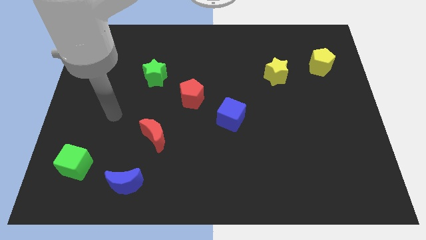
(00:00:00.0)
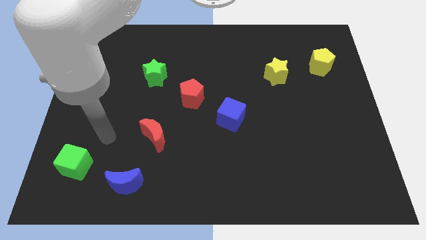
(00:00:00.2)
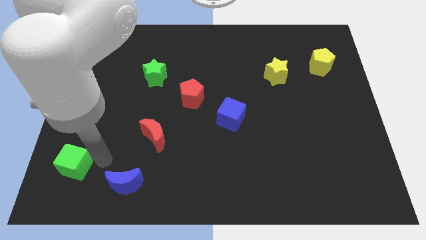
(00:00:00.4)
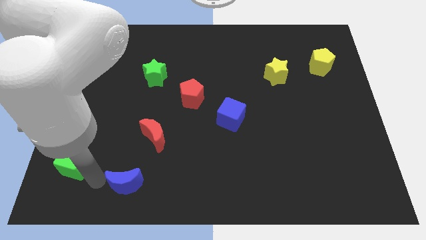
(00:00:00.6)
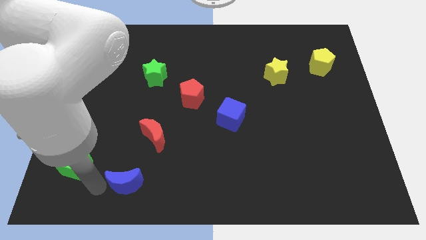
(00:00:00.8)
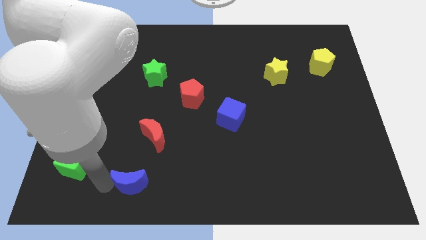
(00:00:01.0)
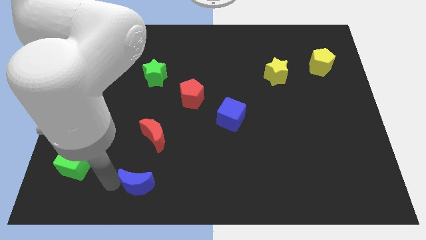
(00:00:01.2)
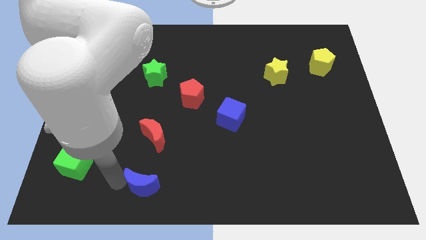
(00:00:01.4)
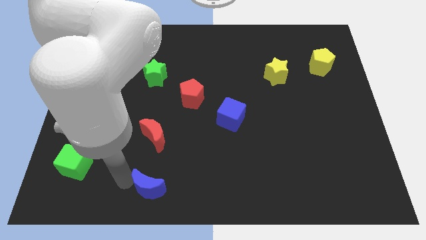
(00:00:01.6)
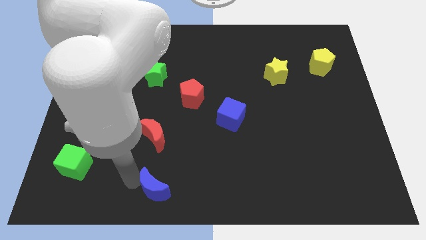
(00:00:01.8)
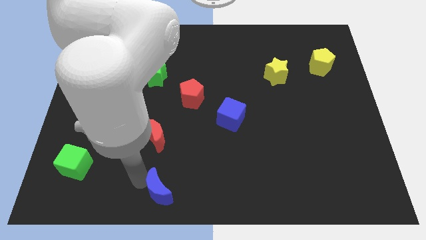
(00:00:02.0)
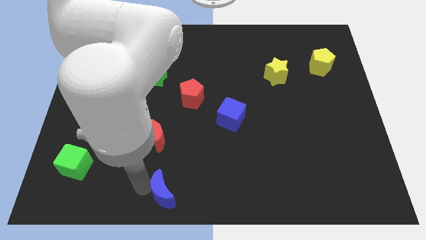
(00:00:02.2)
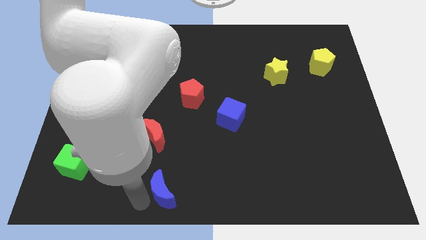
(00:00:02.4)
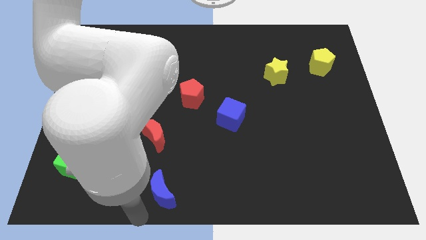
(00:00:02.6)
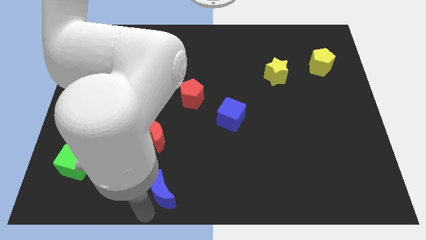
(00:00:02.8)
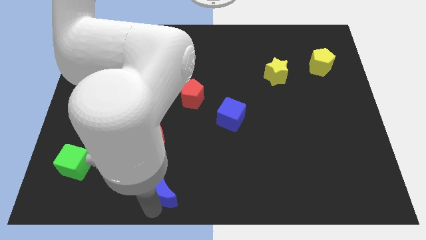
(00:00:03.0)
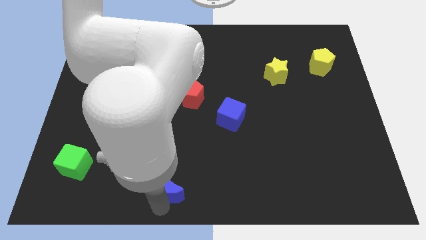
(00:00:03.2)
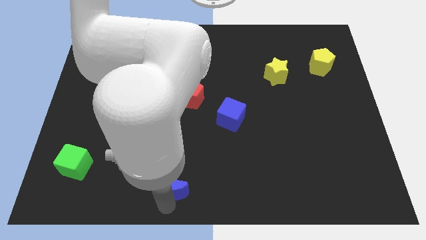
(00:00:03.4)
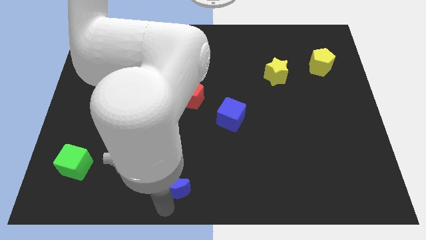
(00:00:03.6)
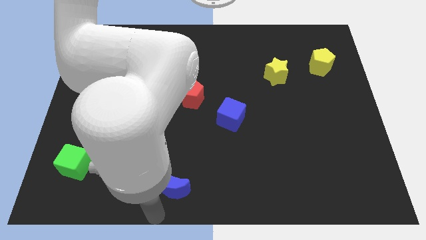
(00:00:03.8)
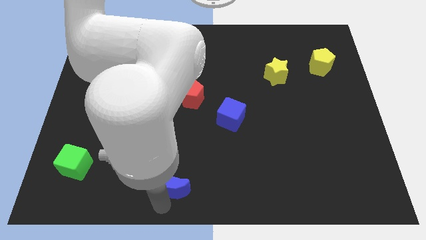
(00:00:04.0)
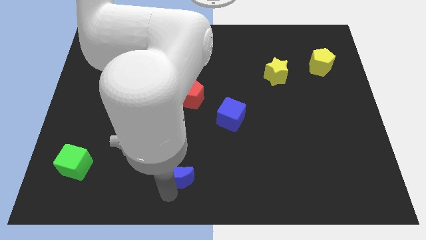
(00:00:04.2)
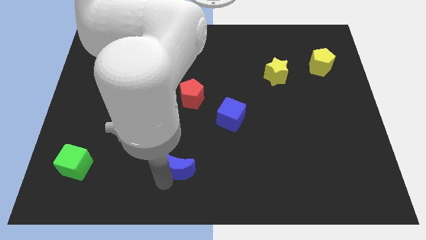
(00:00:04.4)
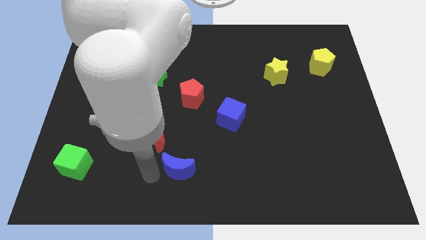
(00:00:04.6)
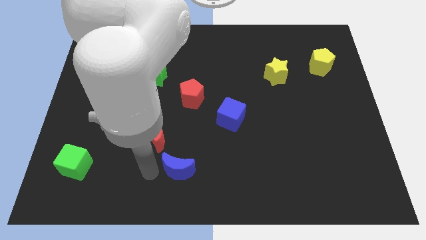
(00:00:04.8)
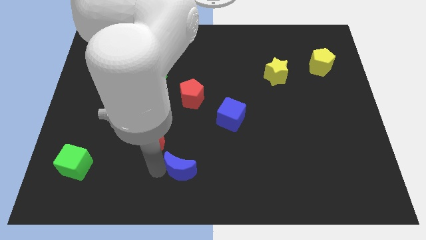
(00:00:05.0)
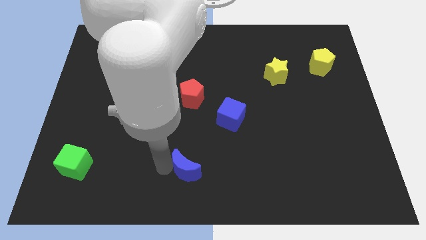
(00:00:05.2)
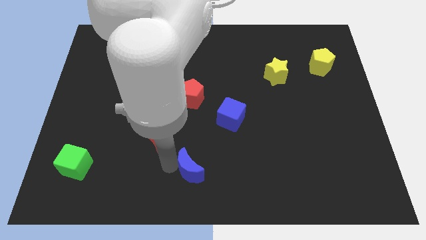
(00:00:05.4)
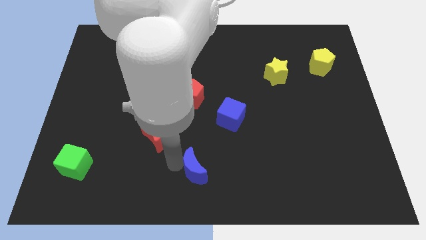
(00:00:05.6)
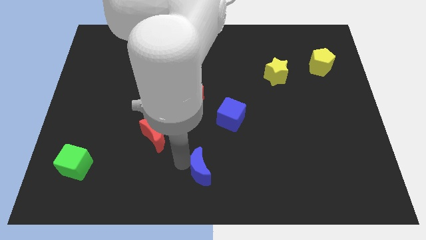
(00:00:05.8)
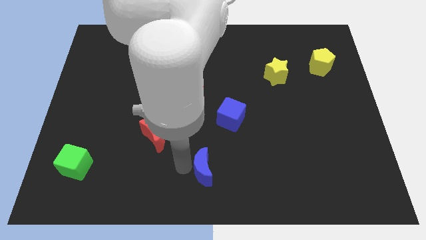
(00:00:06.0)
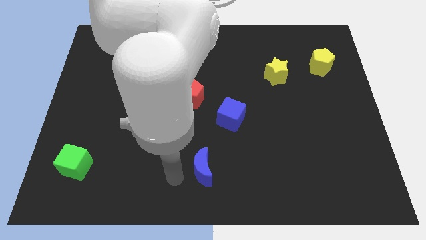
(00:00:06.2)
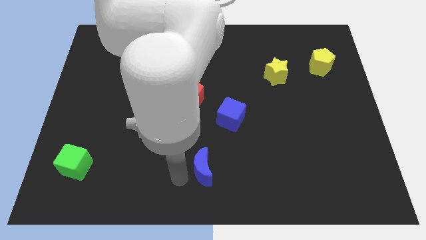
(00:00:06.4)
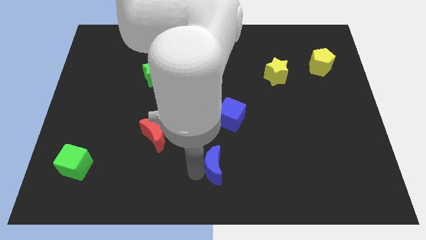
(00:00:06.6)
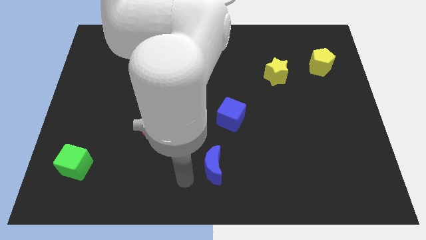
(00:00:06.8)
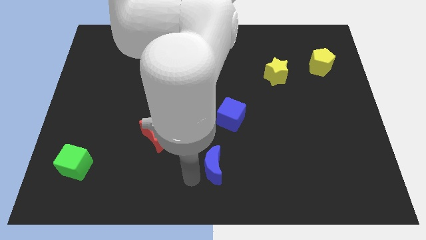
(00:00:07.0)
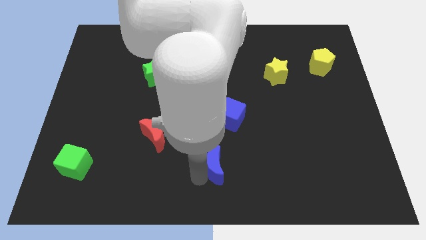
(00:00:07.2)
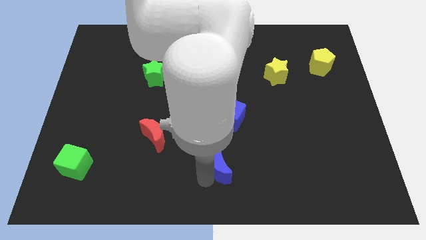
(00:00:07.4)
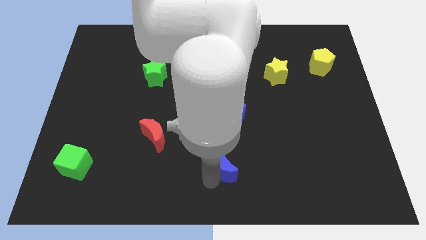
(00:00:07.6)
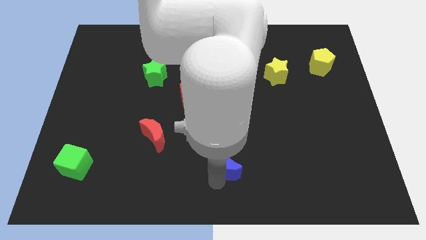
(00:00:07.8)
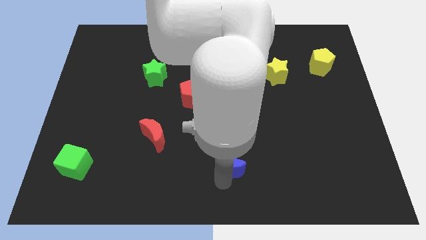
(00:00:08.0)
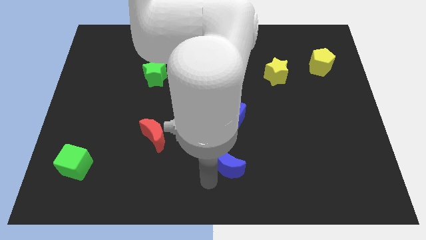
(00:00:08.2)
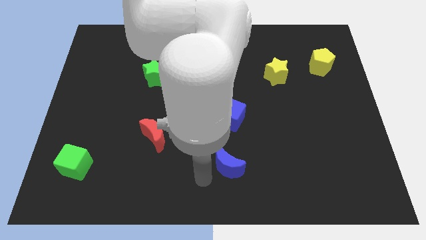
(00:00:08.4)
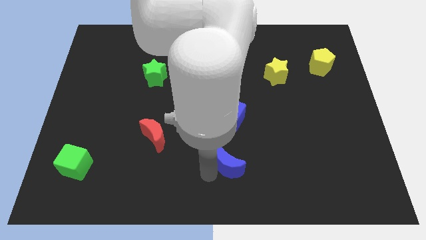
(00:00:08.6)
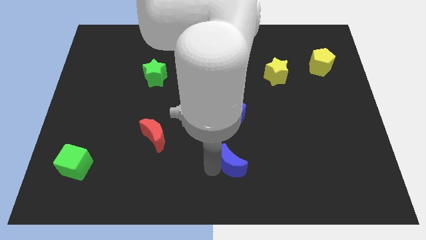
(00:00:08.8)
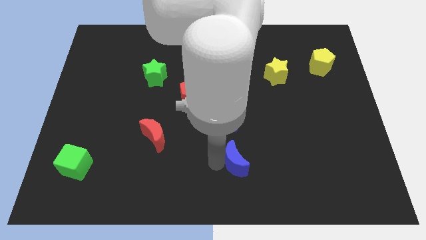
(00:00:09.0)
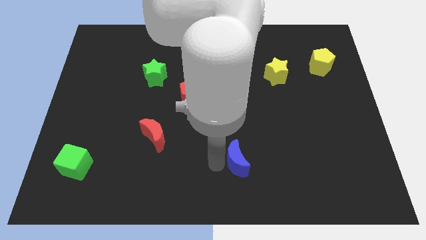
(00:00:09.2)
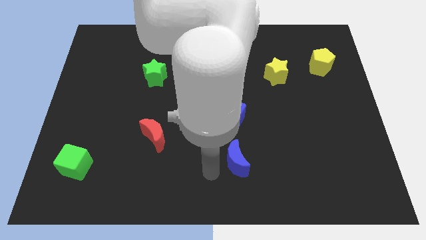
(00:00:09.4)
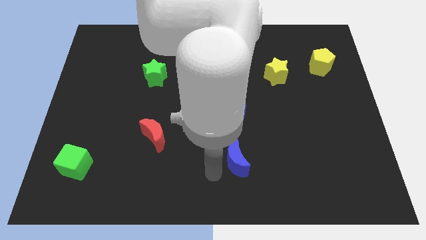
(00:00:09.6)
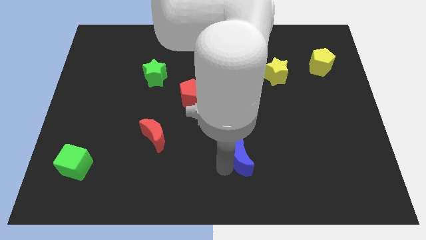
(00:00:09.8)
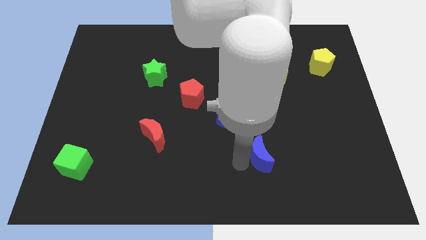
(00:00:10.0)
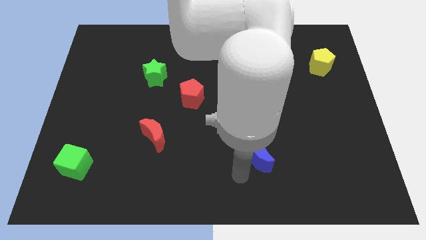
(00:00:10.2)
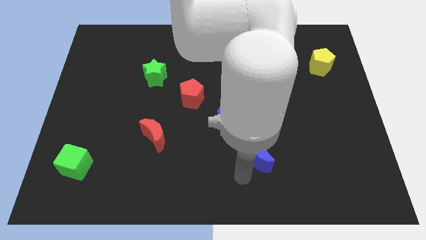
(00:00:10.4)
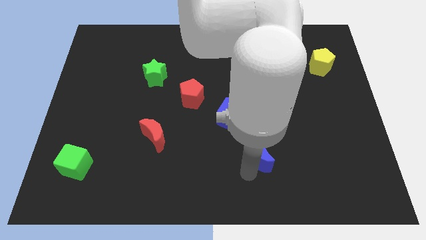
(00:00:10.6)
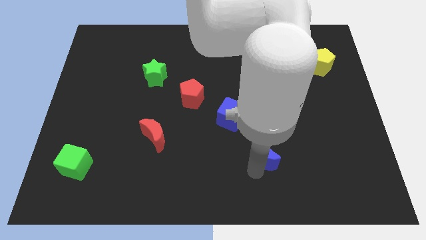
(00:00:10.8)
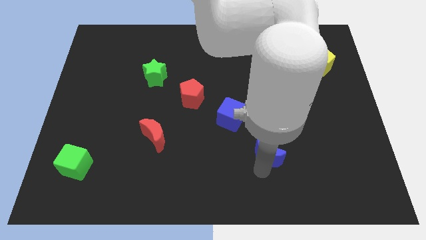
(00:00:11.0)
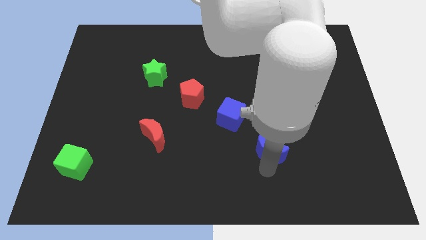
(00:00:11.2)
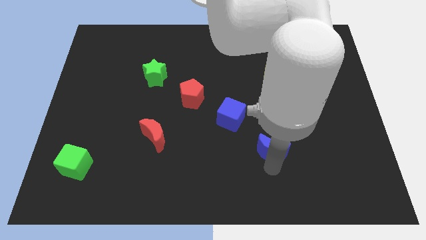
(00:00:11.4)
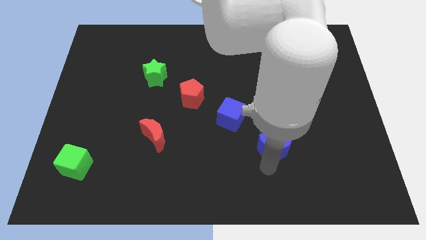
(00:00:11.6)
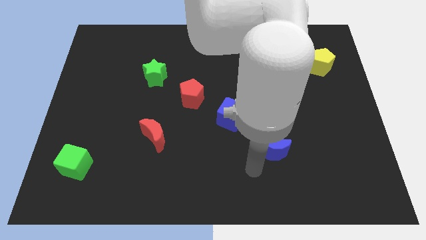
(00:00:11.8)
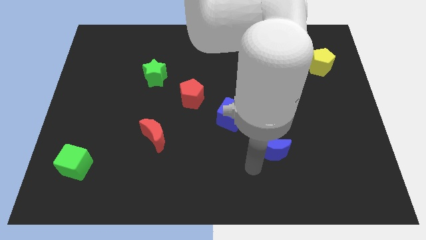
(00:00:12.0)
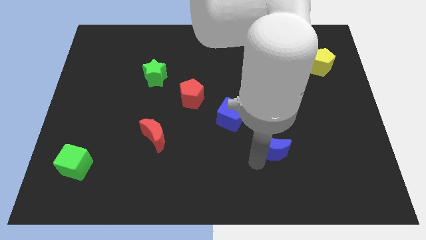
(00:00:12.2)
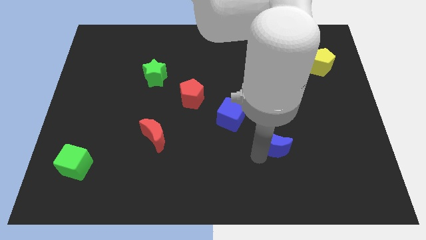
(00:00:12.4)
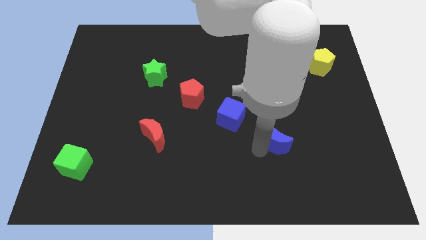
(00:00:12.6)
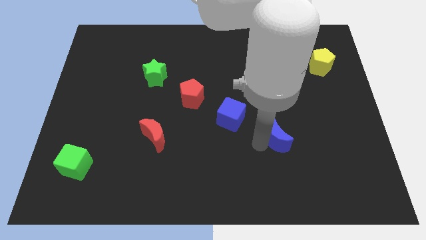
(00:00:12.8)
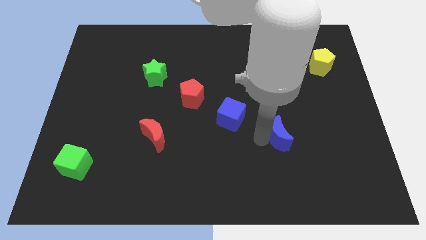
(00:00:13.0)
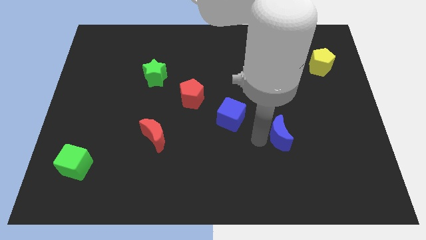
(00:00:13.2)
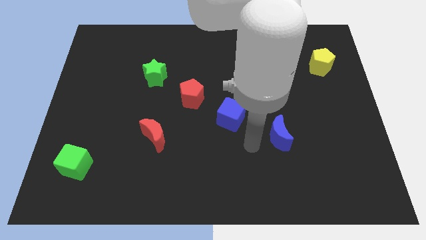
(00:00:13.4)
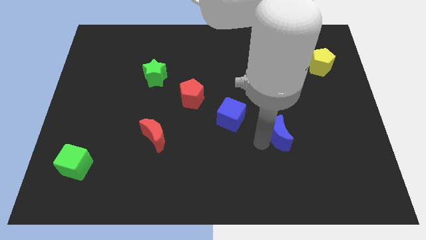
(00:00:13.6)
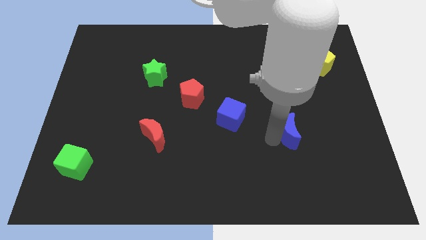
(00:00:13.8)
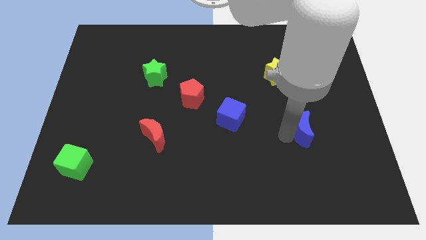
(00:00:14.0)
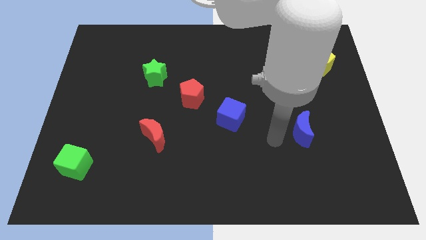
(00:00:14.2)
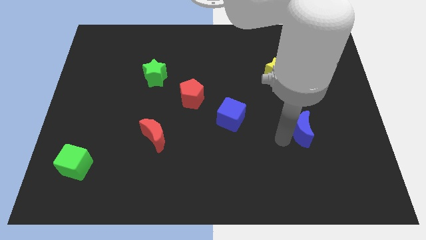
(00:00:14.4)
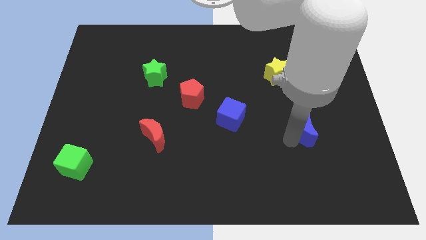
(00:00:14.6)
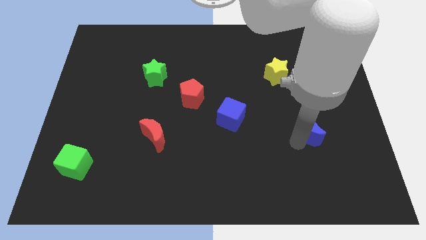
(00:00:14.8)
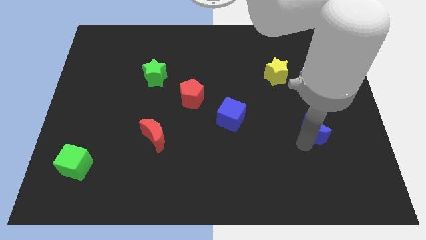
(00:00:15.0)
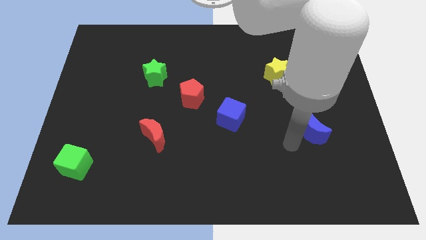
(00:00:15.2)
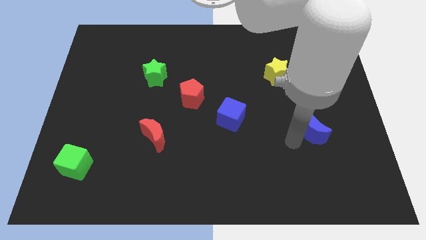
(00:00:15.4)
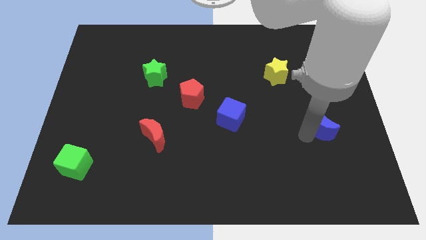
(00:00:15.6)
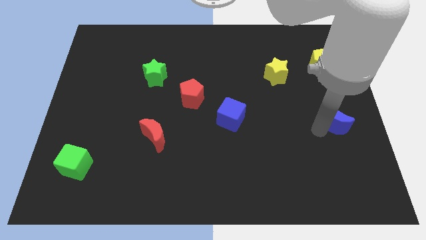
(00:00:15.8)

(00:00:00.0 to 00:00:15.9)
move the blue moon to the right side

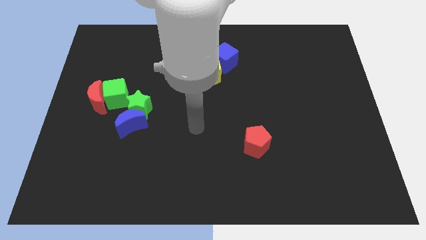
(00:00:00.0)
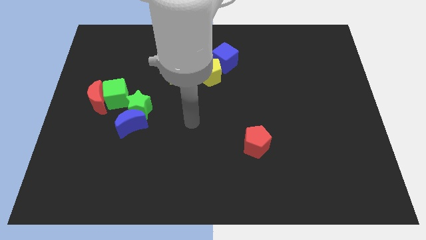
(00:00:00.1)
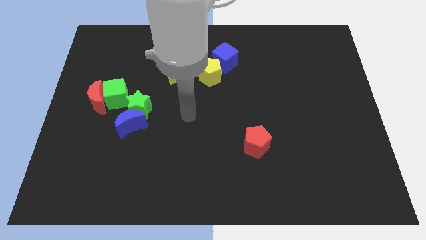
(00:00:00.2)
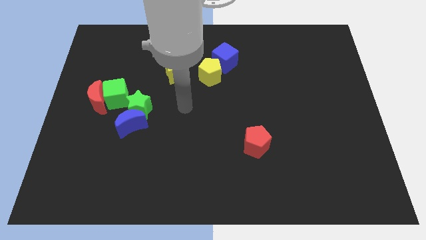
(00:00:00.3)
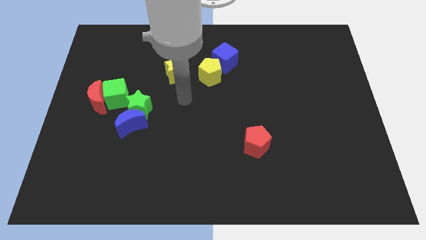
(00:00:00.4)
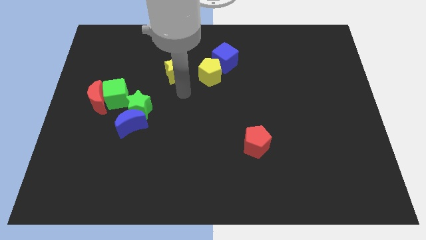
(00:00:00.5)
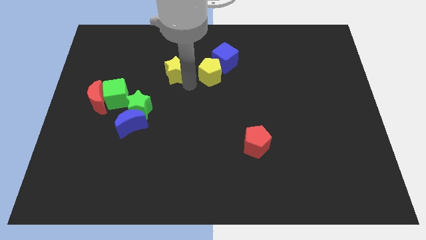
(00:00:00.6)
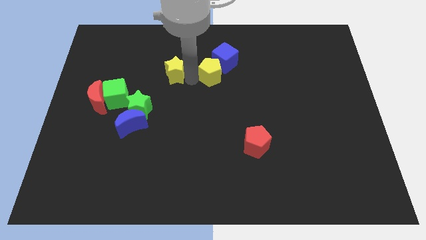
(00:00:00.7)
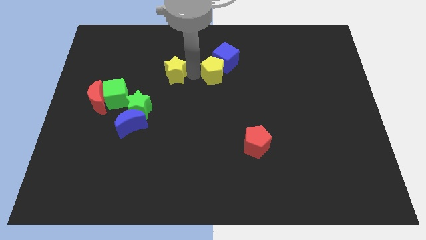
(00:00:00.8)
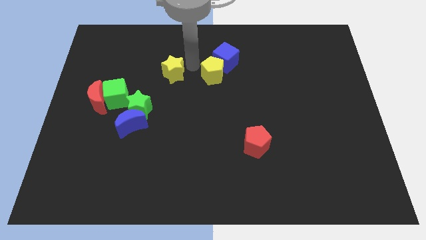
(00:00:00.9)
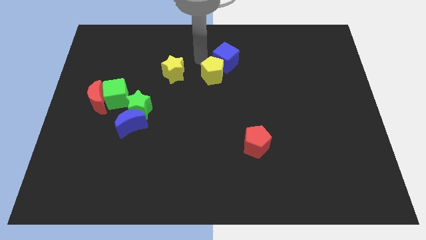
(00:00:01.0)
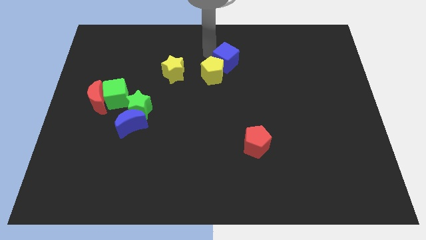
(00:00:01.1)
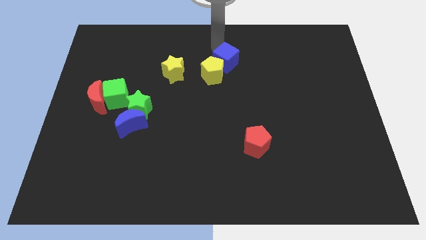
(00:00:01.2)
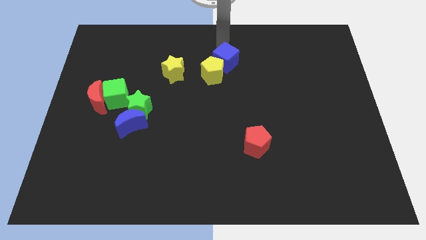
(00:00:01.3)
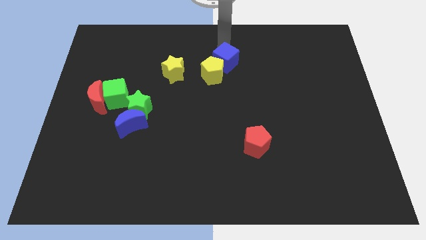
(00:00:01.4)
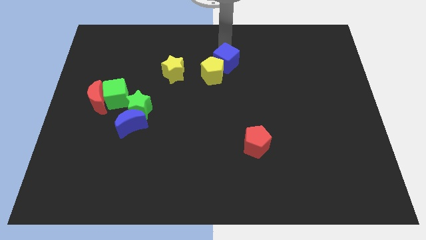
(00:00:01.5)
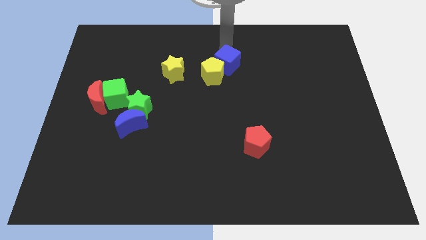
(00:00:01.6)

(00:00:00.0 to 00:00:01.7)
put the blue cube to the middle of the board
